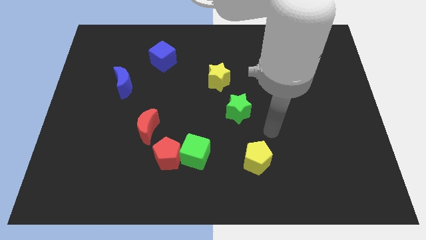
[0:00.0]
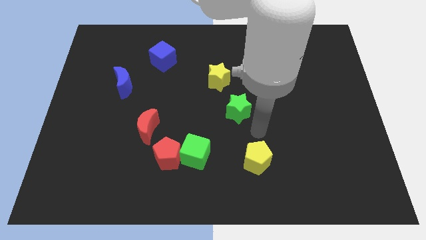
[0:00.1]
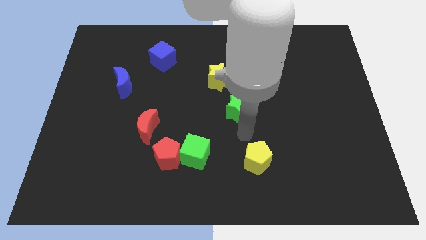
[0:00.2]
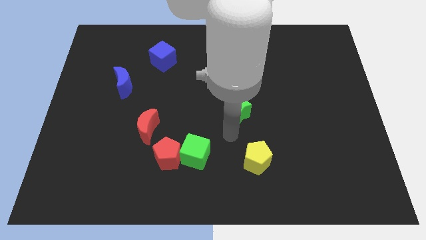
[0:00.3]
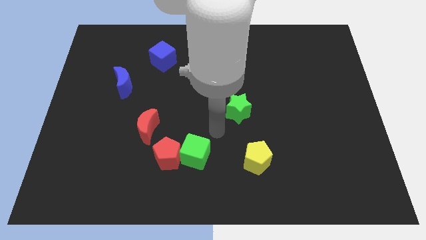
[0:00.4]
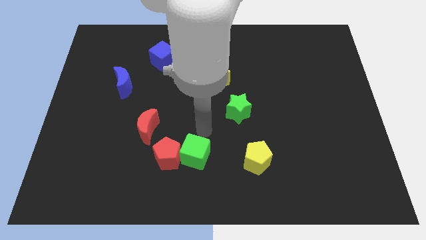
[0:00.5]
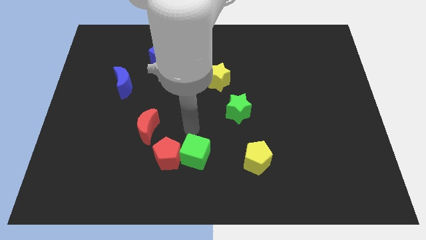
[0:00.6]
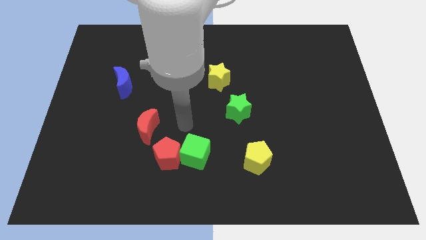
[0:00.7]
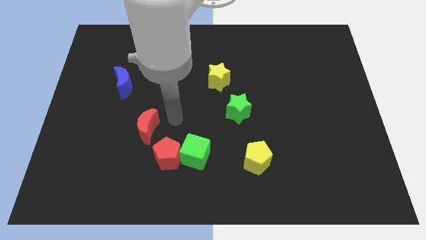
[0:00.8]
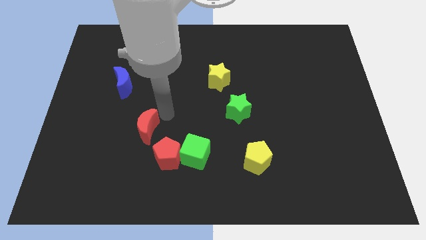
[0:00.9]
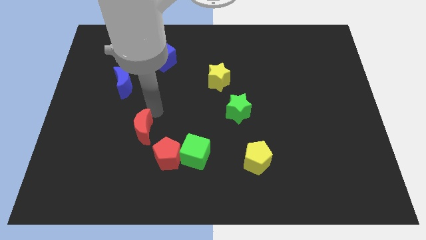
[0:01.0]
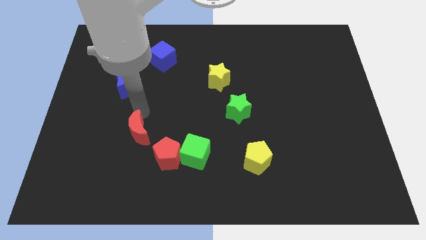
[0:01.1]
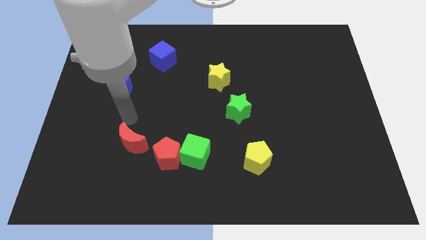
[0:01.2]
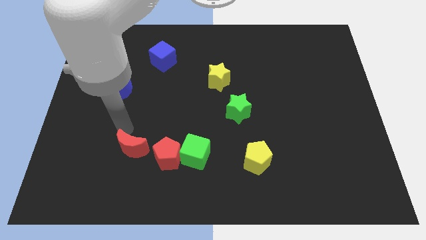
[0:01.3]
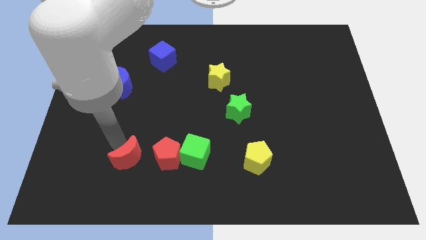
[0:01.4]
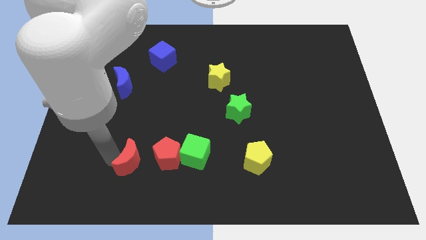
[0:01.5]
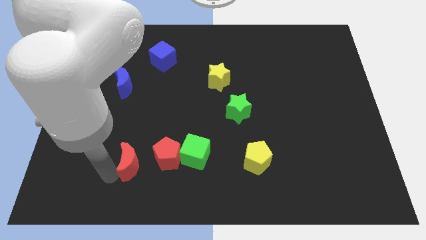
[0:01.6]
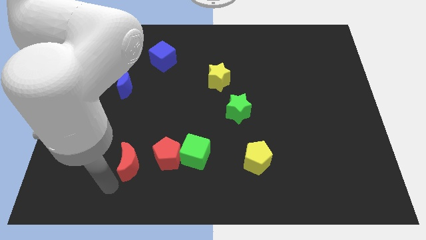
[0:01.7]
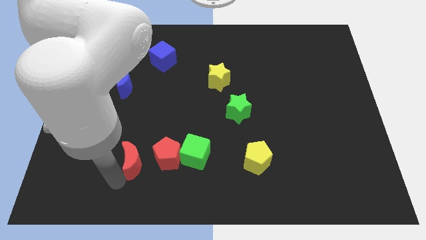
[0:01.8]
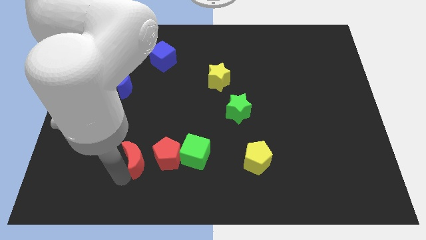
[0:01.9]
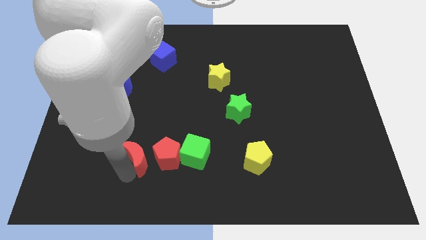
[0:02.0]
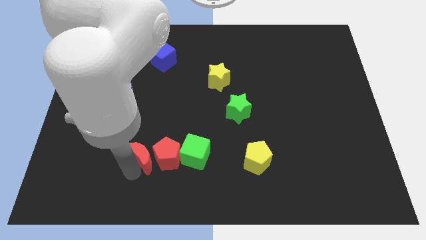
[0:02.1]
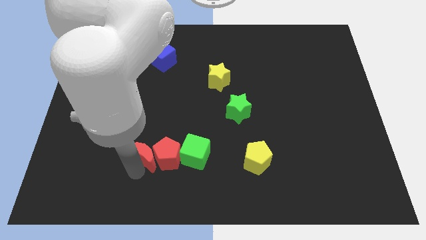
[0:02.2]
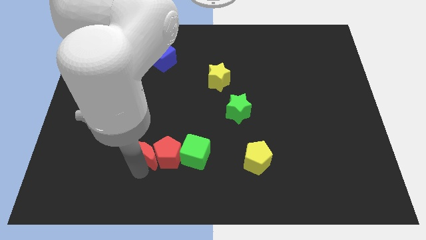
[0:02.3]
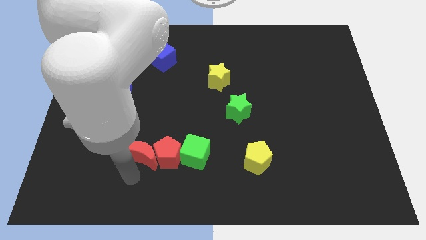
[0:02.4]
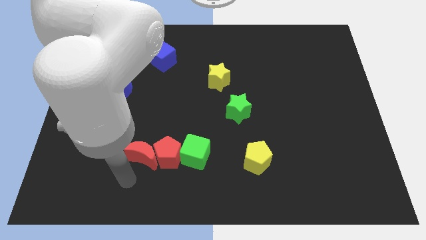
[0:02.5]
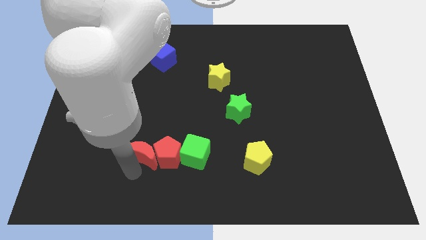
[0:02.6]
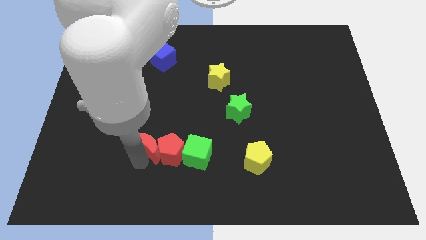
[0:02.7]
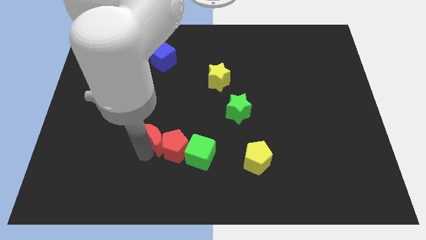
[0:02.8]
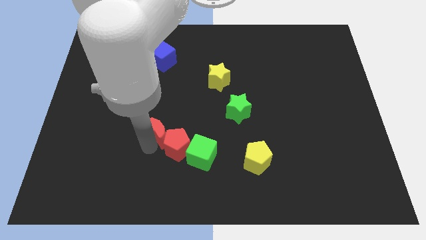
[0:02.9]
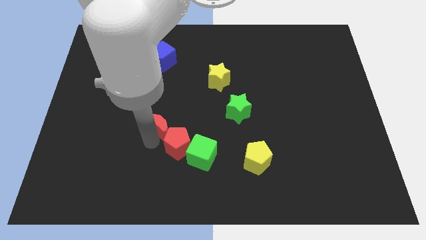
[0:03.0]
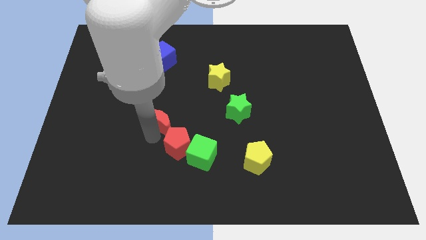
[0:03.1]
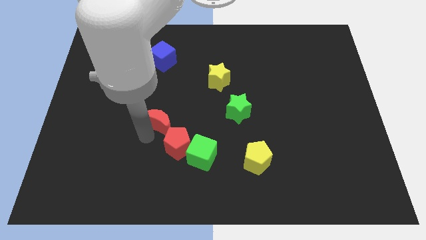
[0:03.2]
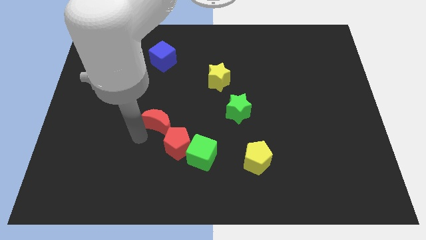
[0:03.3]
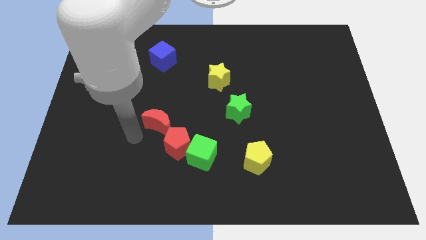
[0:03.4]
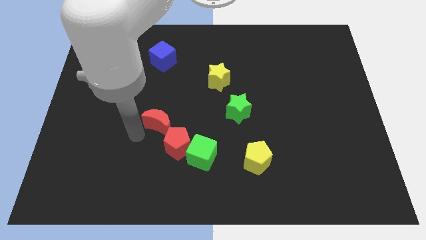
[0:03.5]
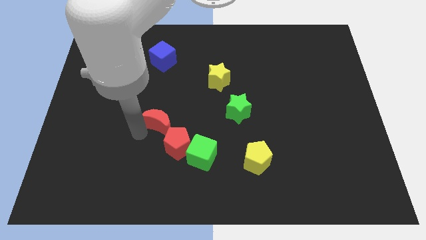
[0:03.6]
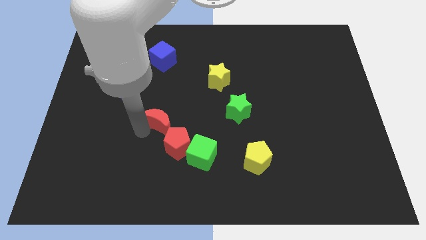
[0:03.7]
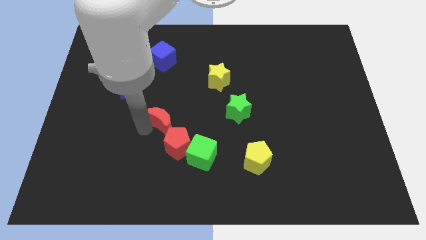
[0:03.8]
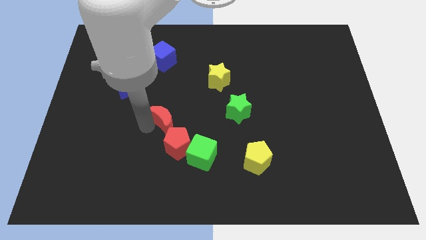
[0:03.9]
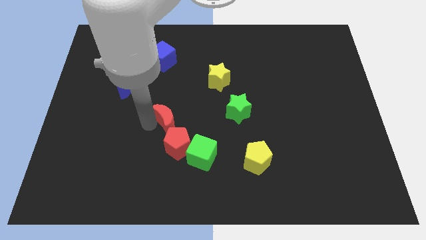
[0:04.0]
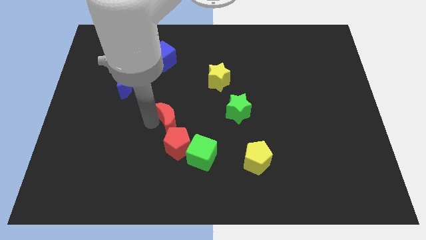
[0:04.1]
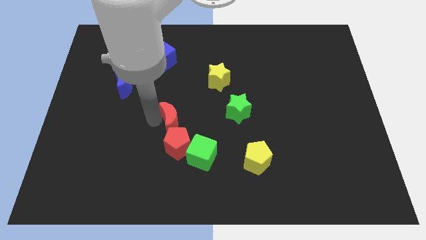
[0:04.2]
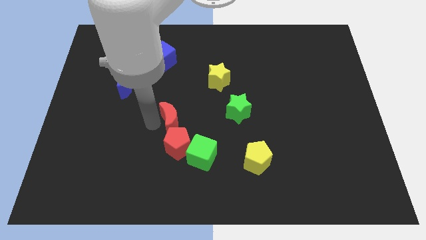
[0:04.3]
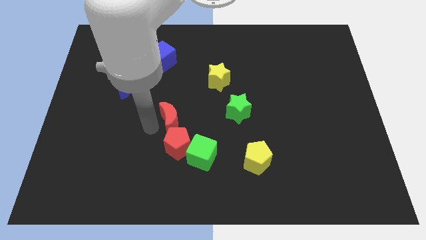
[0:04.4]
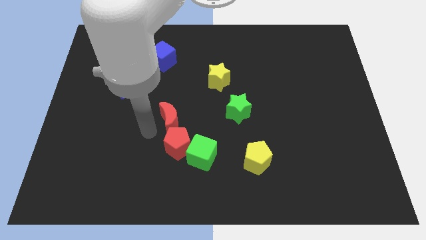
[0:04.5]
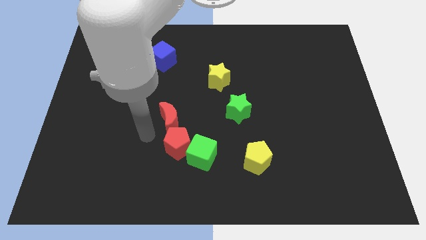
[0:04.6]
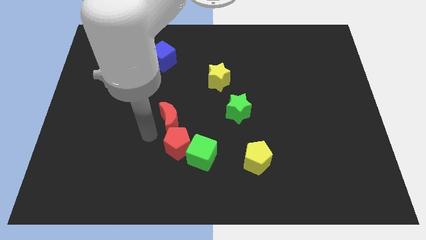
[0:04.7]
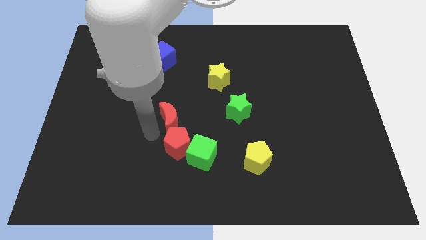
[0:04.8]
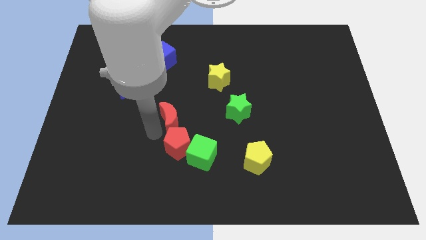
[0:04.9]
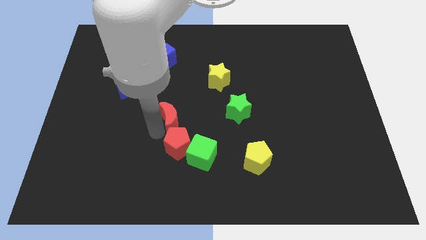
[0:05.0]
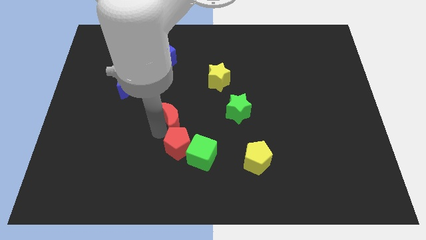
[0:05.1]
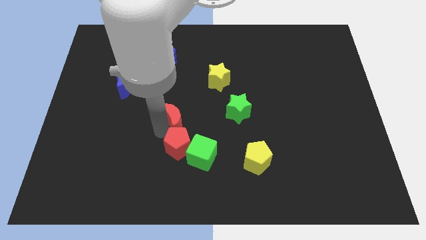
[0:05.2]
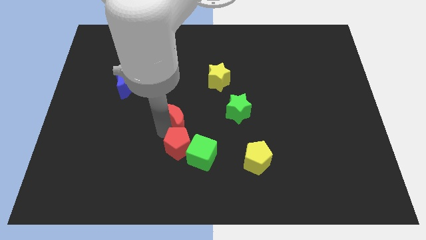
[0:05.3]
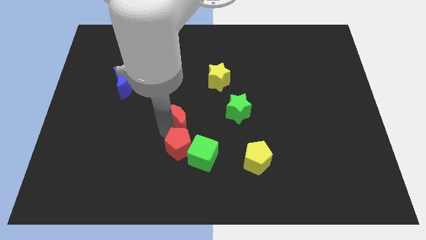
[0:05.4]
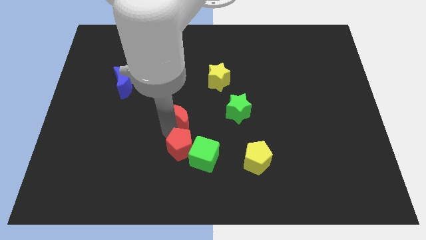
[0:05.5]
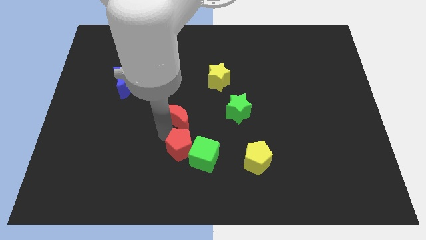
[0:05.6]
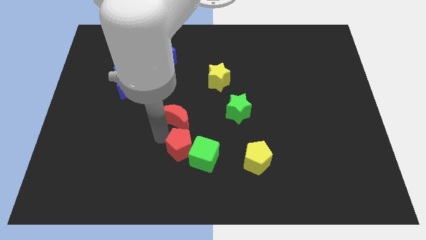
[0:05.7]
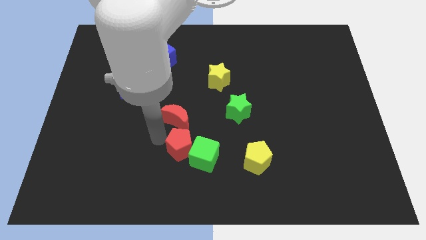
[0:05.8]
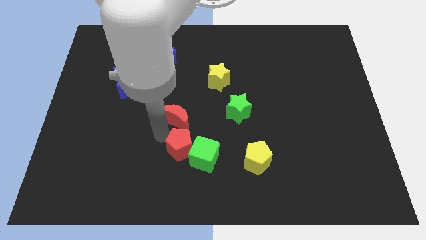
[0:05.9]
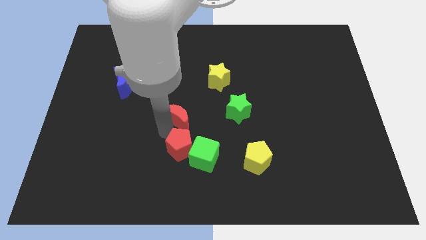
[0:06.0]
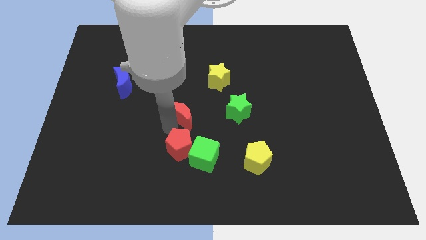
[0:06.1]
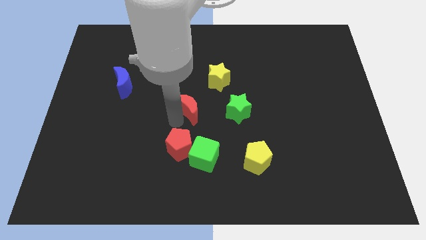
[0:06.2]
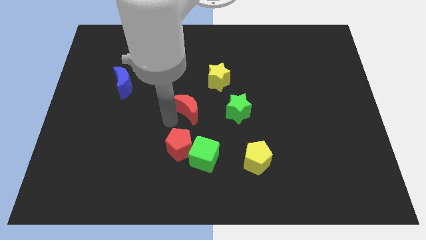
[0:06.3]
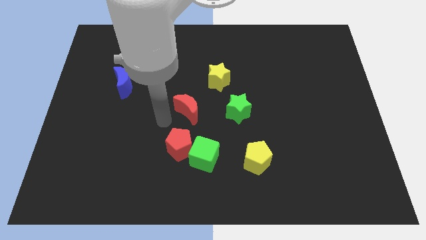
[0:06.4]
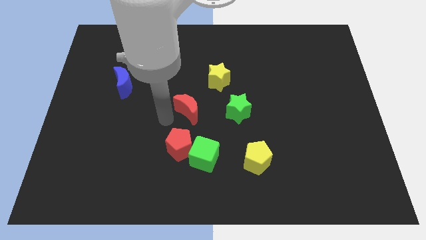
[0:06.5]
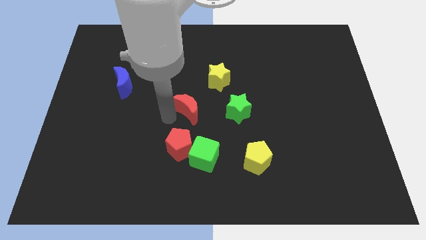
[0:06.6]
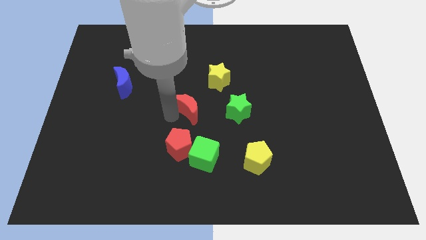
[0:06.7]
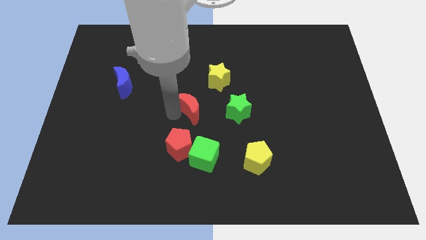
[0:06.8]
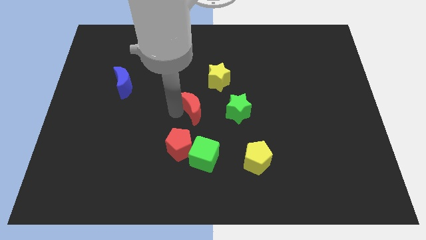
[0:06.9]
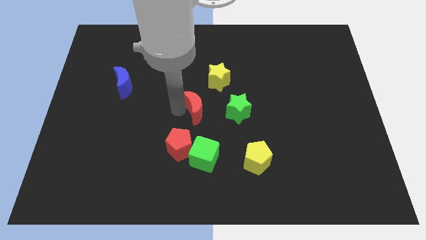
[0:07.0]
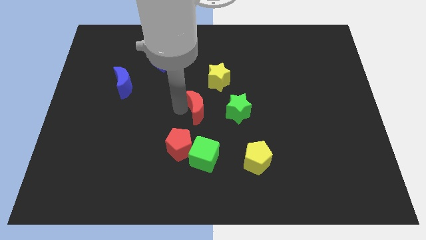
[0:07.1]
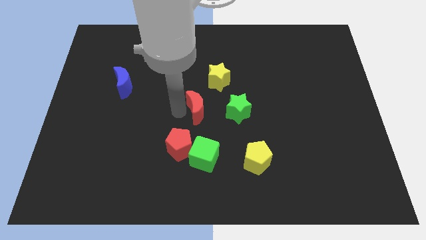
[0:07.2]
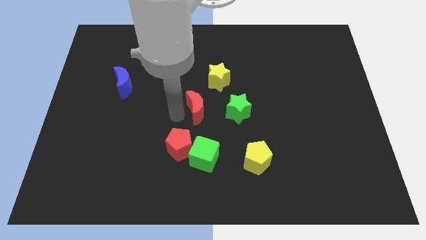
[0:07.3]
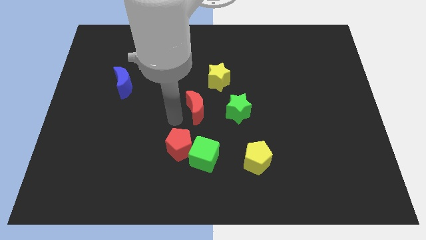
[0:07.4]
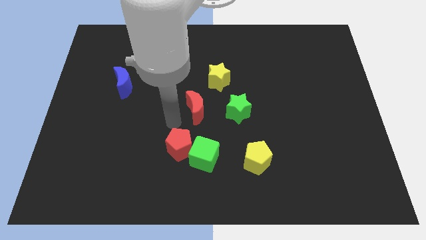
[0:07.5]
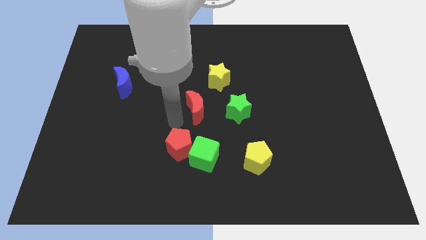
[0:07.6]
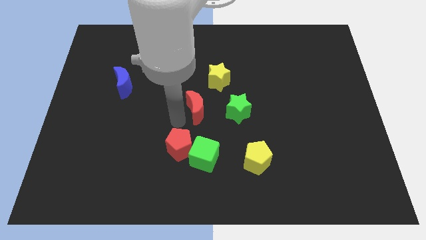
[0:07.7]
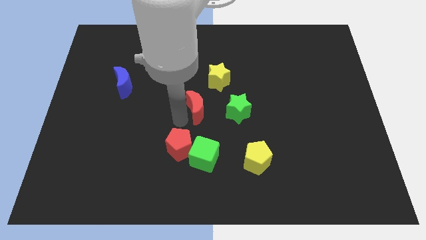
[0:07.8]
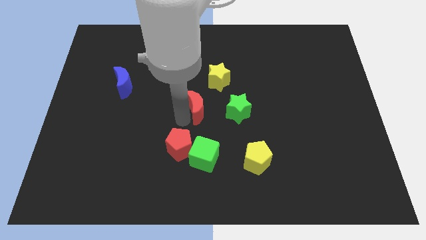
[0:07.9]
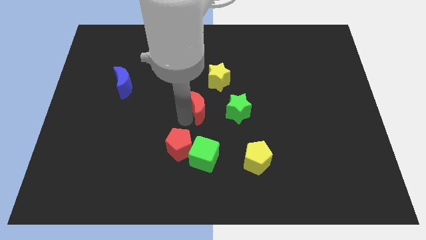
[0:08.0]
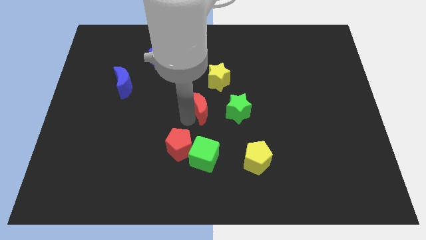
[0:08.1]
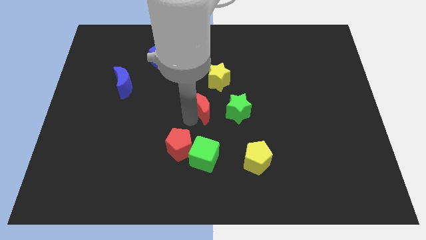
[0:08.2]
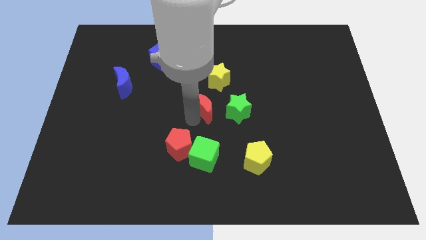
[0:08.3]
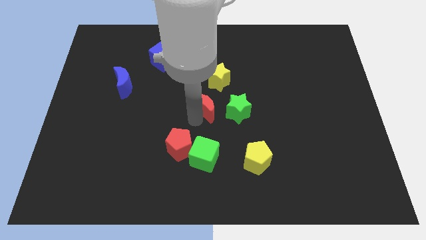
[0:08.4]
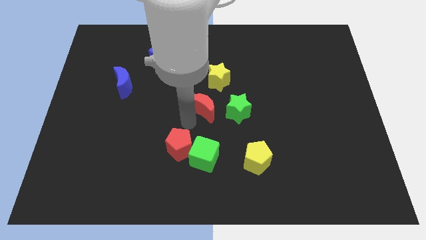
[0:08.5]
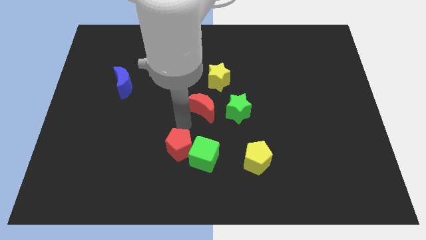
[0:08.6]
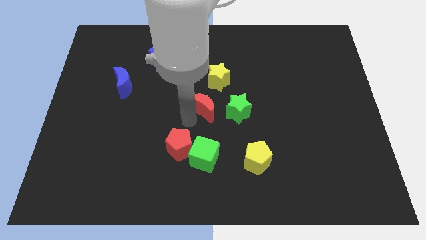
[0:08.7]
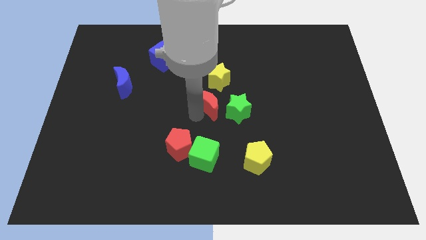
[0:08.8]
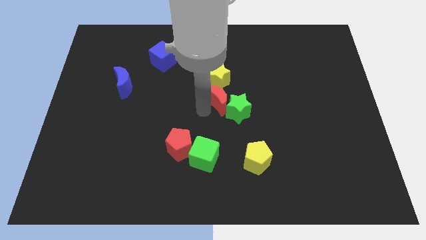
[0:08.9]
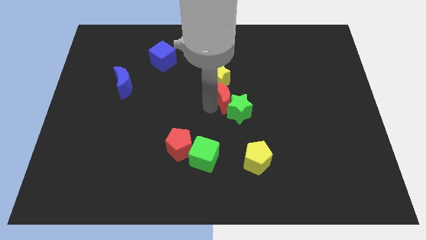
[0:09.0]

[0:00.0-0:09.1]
put the red moon to the top of the green star
